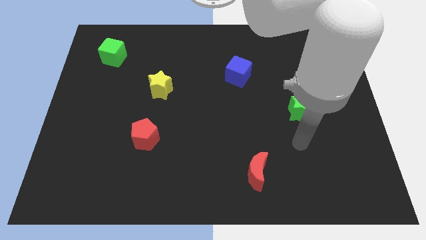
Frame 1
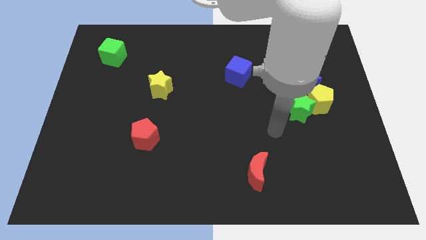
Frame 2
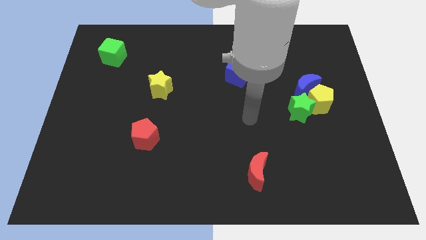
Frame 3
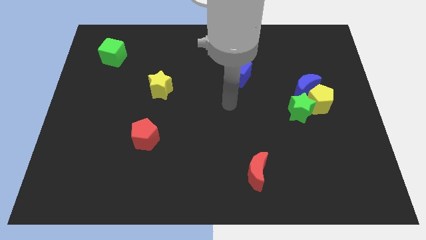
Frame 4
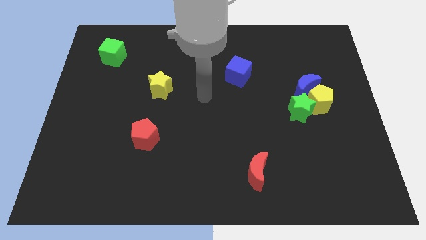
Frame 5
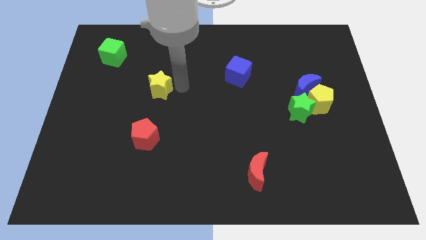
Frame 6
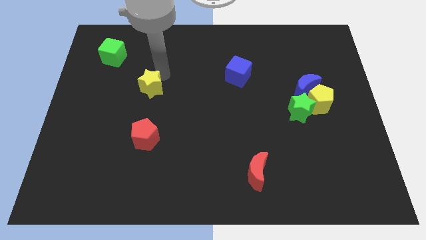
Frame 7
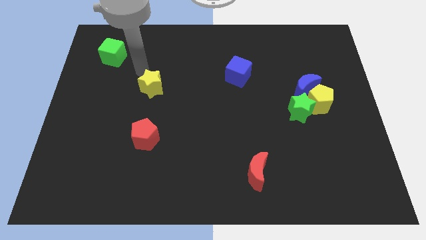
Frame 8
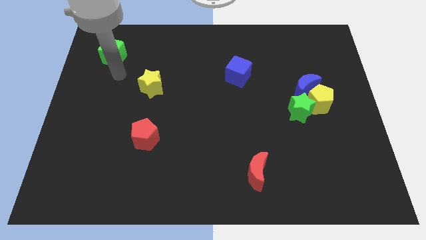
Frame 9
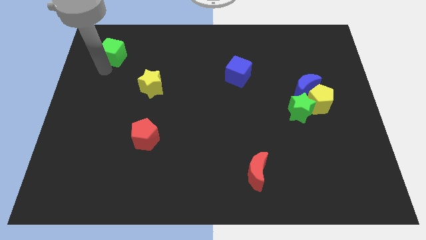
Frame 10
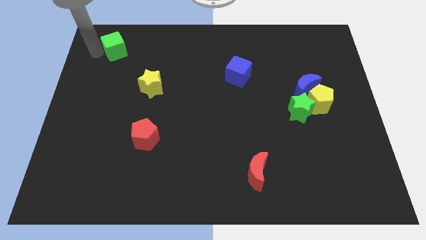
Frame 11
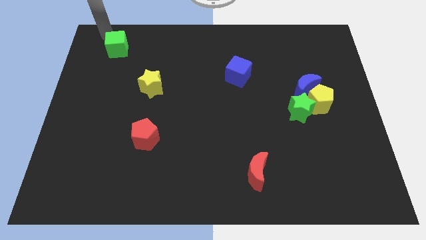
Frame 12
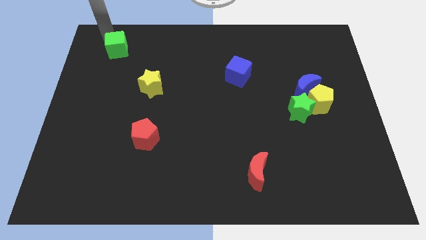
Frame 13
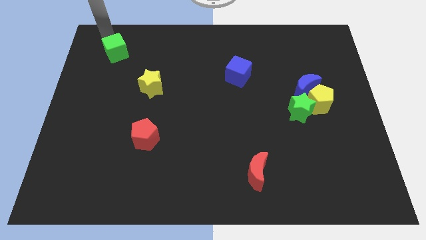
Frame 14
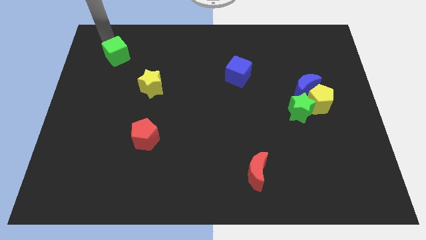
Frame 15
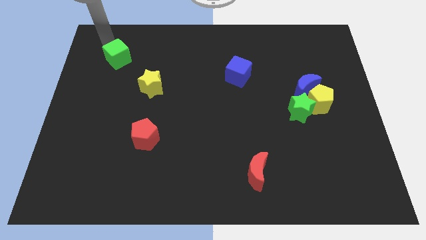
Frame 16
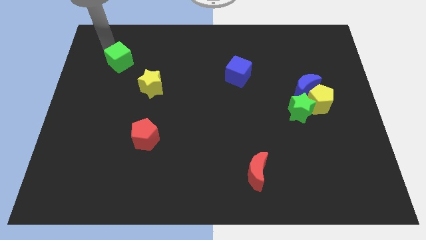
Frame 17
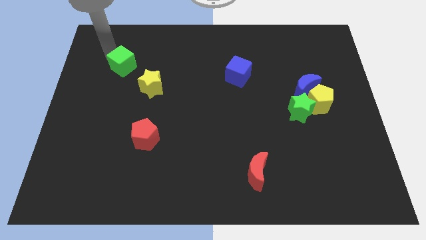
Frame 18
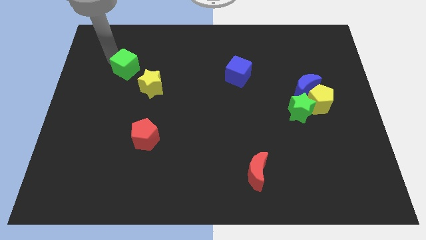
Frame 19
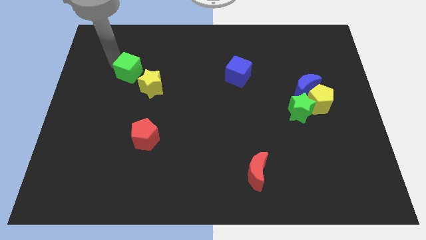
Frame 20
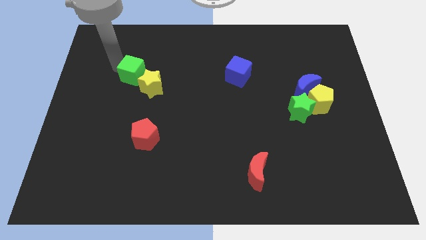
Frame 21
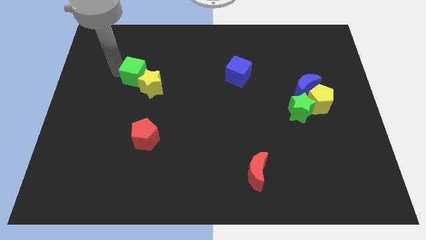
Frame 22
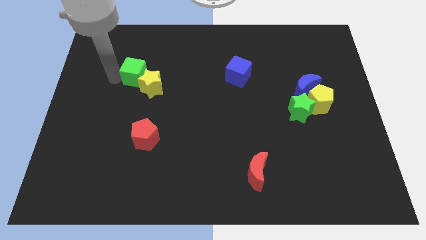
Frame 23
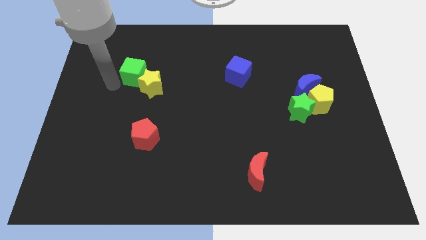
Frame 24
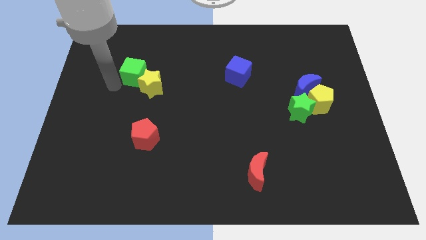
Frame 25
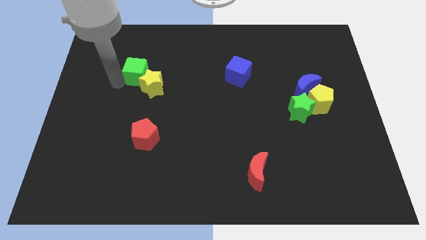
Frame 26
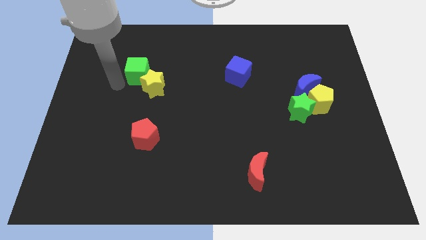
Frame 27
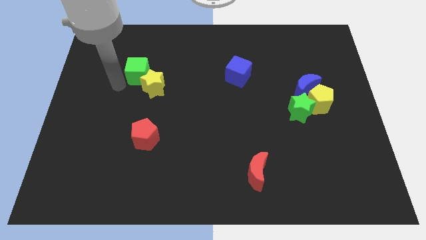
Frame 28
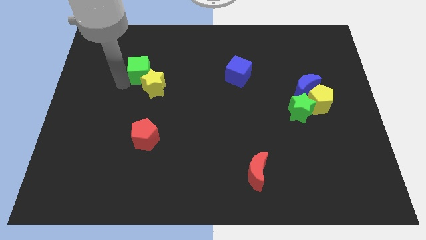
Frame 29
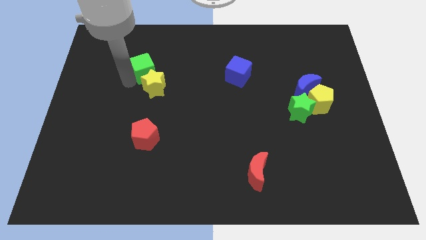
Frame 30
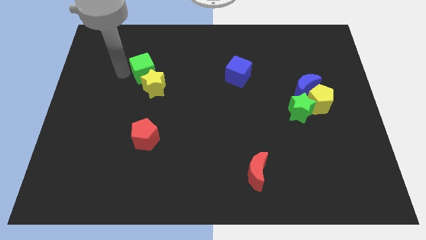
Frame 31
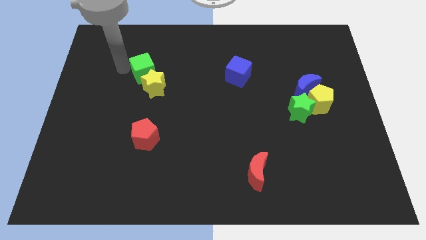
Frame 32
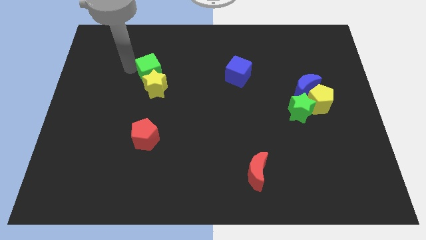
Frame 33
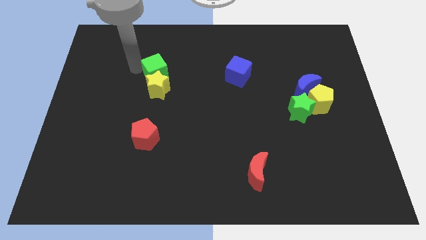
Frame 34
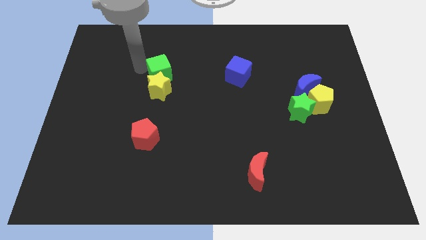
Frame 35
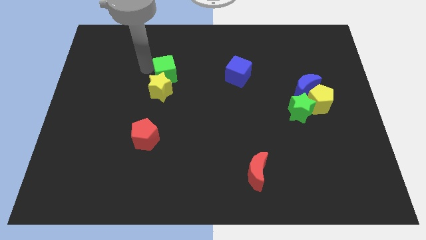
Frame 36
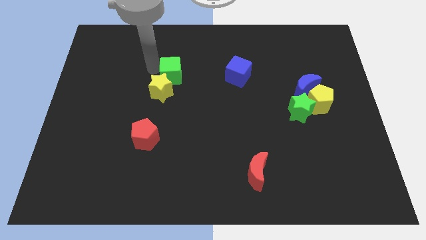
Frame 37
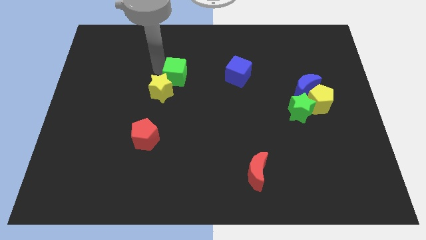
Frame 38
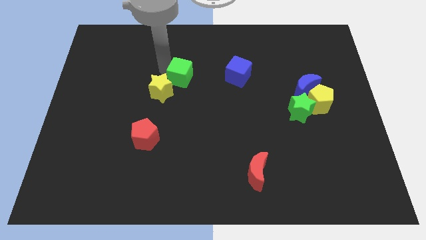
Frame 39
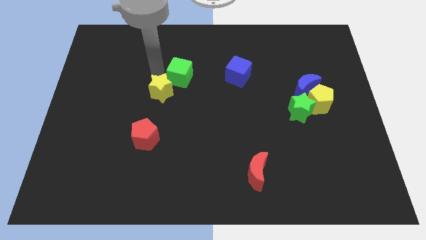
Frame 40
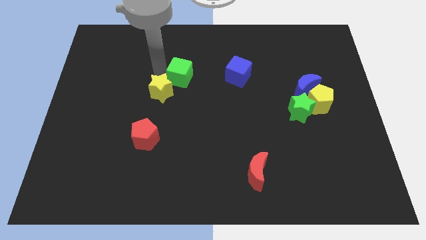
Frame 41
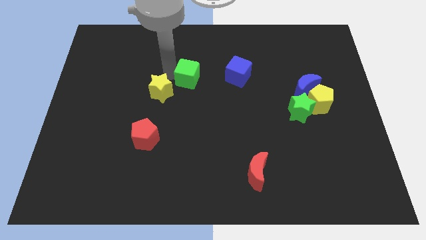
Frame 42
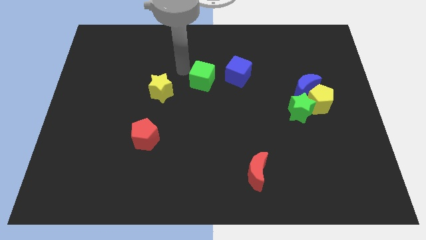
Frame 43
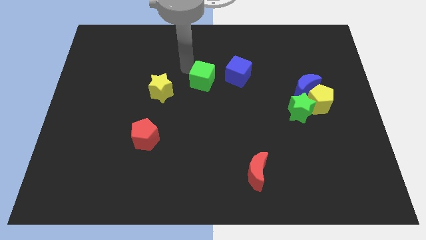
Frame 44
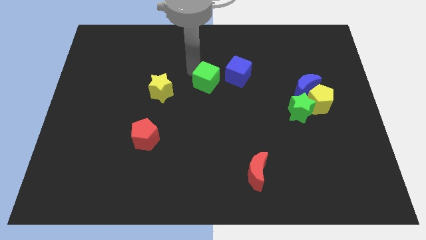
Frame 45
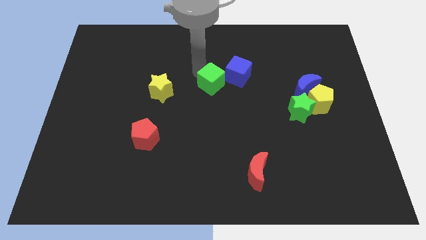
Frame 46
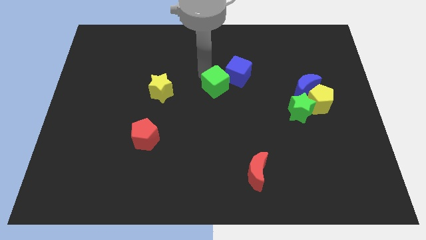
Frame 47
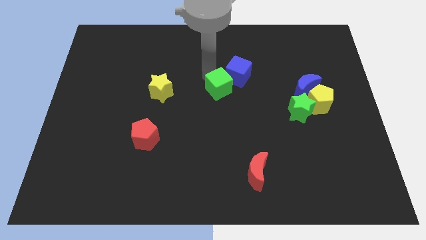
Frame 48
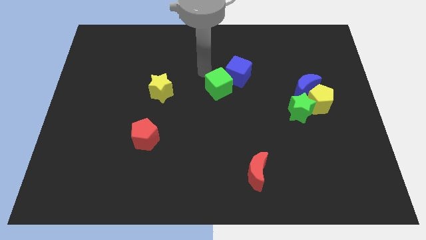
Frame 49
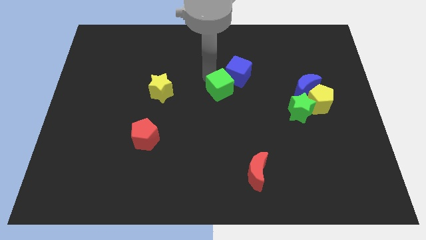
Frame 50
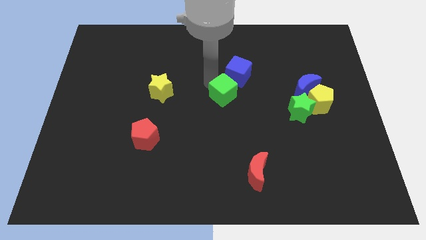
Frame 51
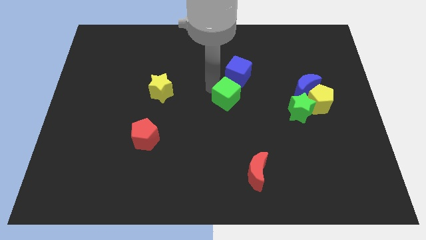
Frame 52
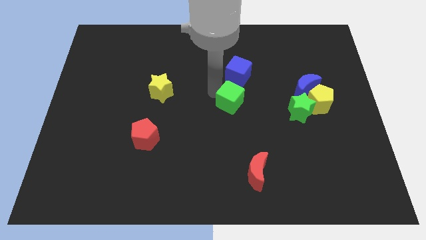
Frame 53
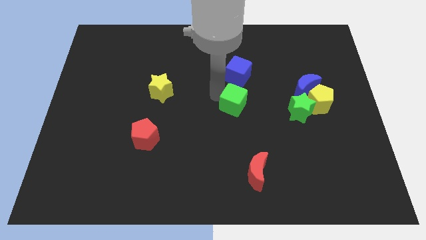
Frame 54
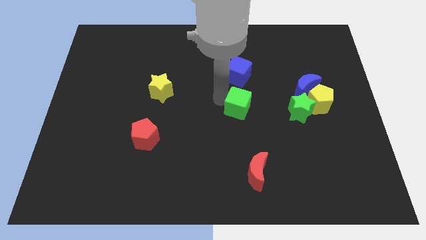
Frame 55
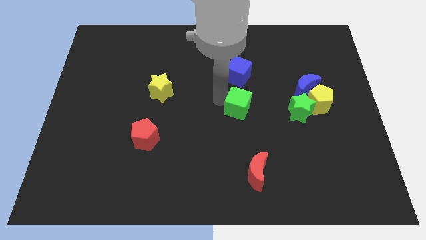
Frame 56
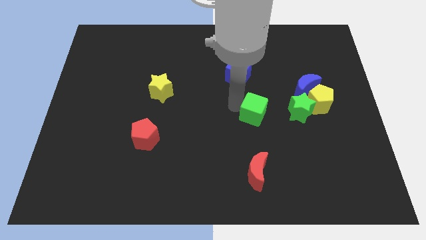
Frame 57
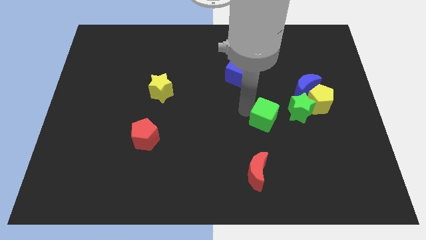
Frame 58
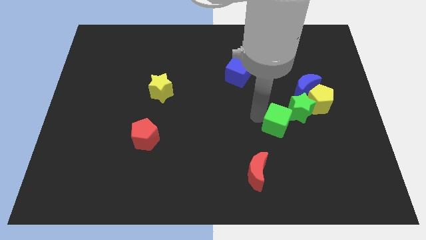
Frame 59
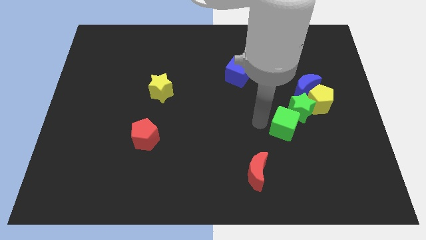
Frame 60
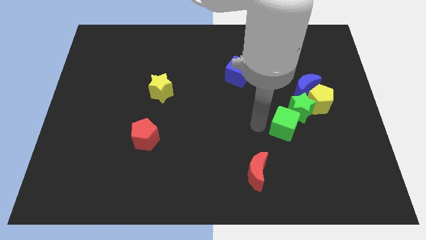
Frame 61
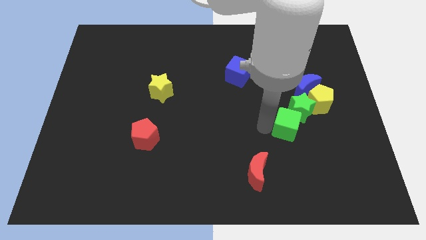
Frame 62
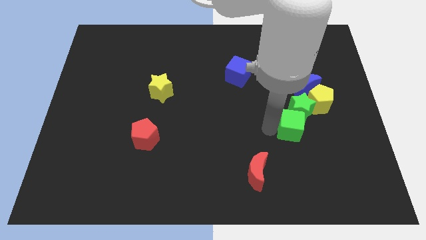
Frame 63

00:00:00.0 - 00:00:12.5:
push the green cube to the bottom side of the blue moon

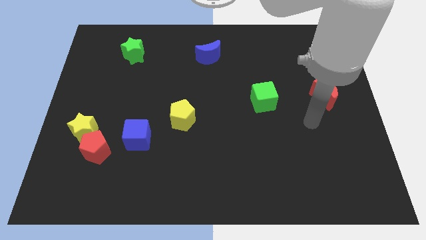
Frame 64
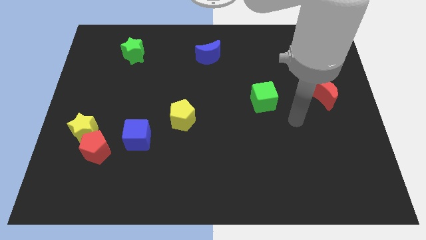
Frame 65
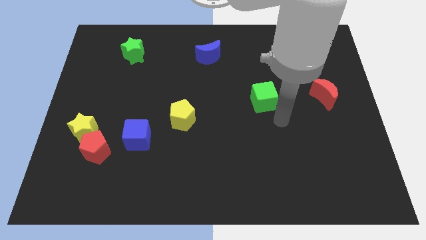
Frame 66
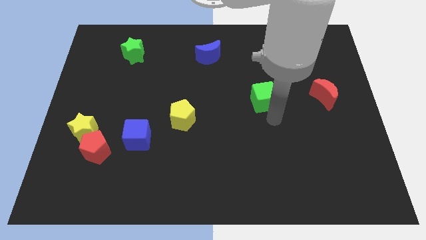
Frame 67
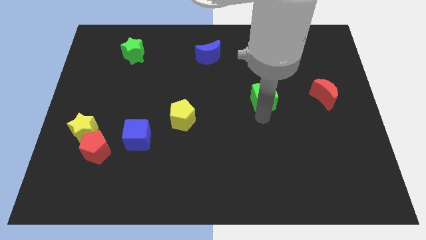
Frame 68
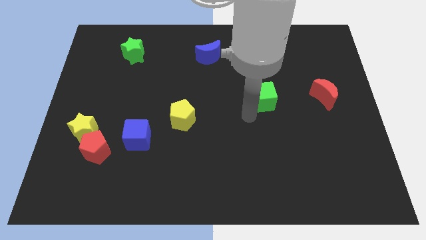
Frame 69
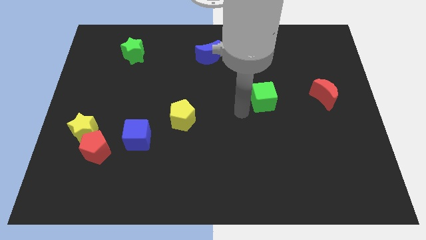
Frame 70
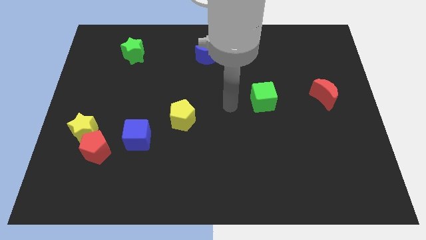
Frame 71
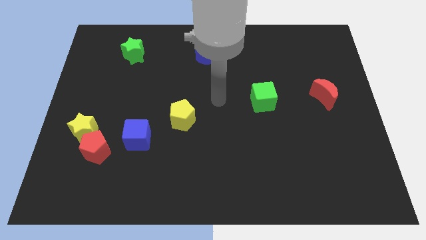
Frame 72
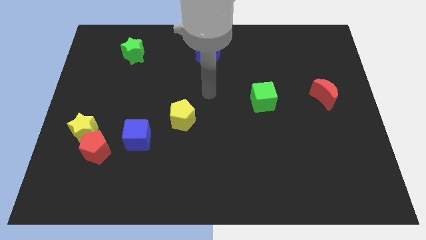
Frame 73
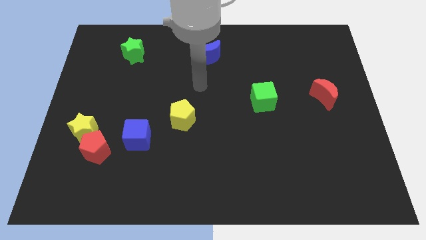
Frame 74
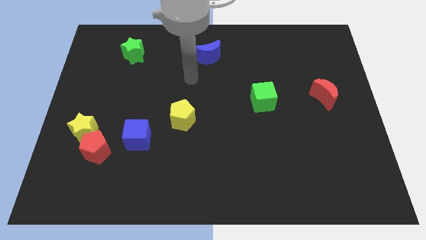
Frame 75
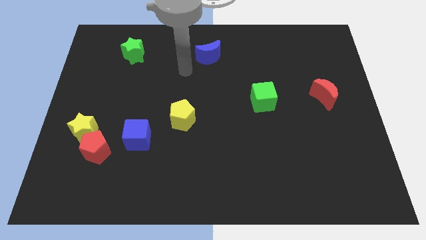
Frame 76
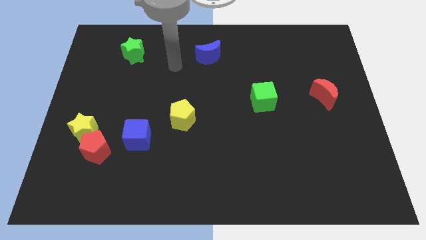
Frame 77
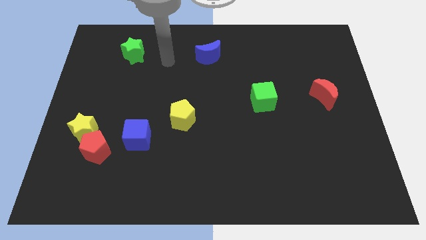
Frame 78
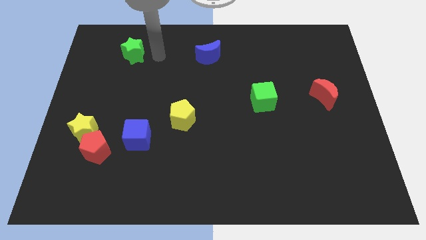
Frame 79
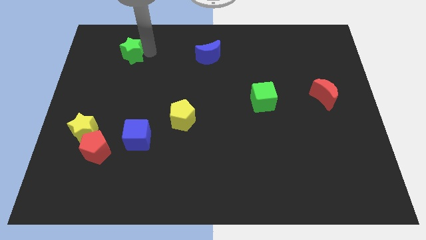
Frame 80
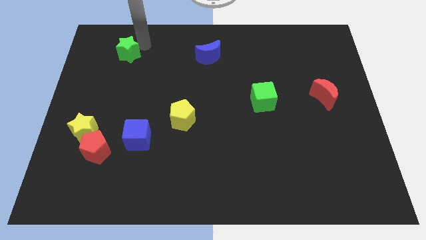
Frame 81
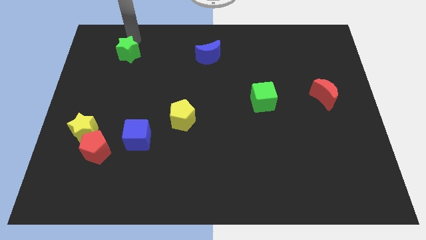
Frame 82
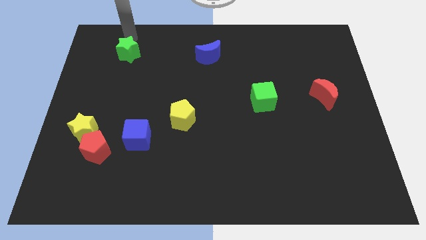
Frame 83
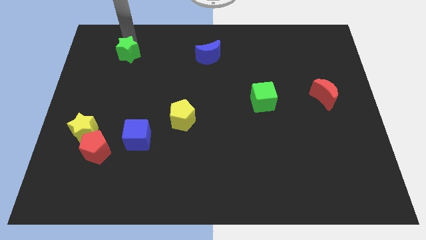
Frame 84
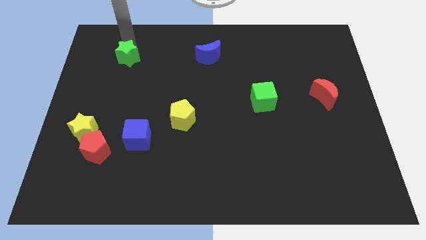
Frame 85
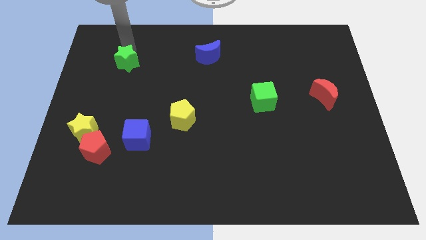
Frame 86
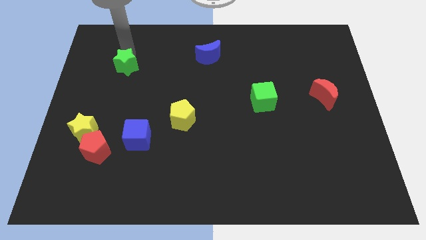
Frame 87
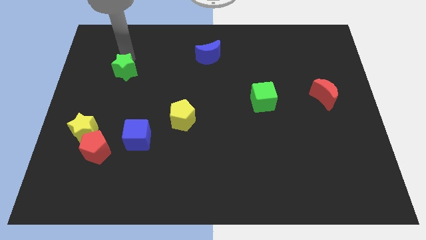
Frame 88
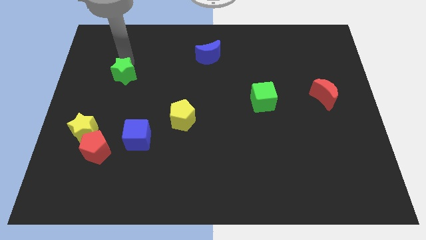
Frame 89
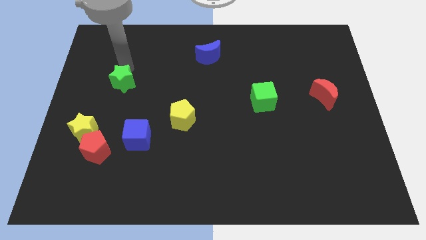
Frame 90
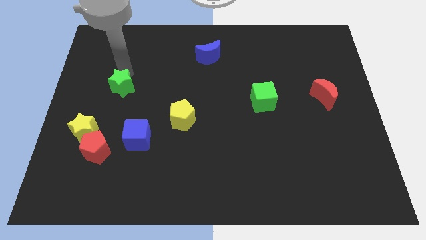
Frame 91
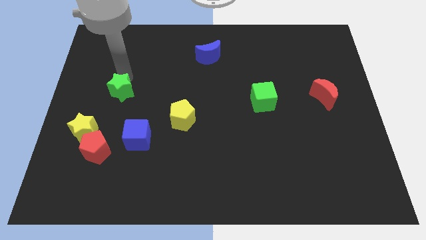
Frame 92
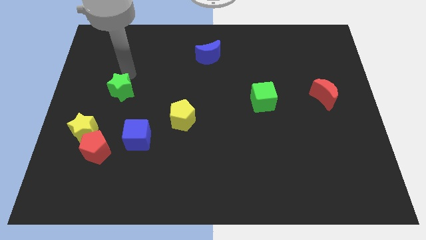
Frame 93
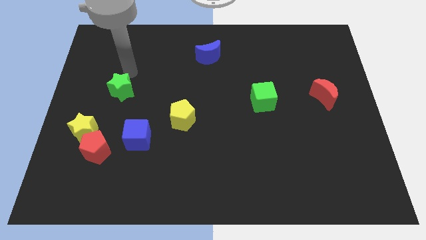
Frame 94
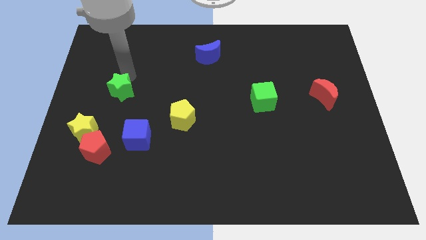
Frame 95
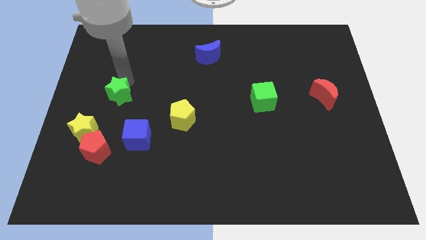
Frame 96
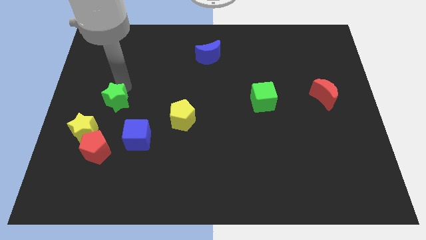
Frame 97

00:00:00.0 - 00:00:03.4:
put the green star to the top right side of the yellow star
